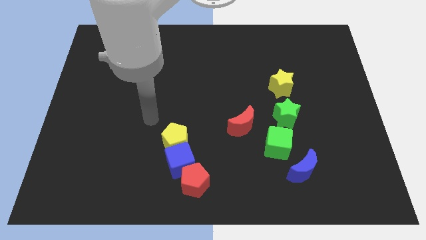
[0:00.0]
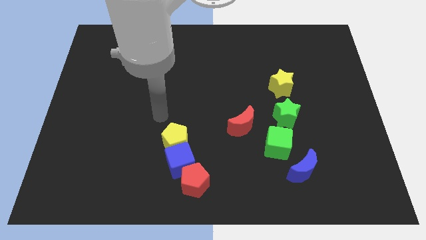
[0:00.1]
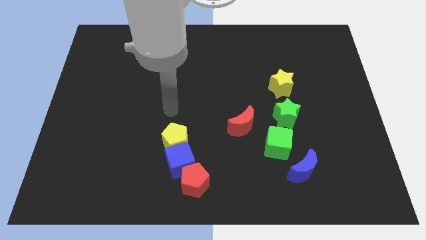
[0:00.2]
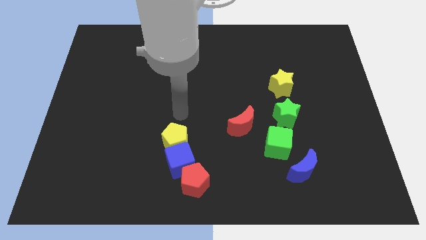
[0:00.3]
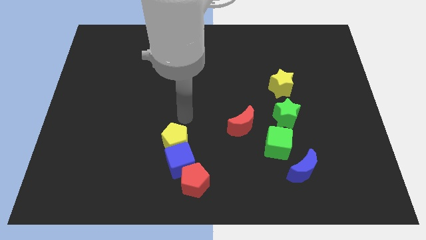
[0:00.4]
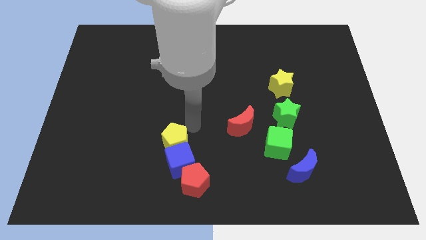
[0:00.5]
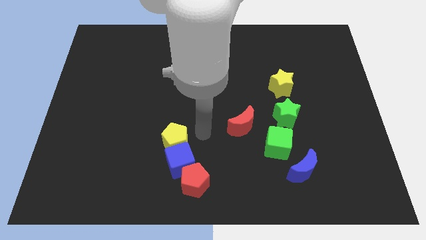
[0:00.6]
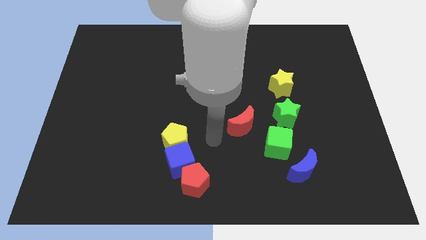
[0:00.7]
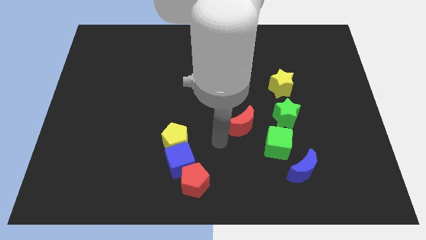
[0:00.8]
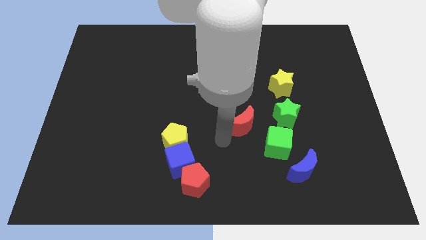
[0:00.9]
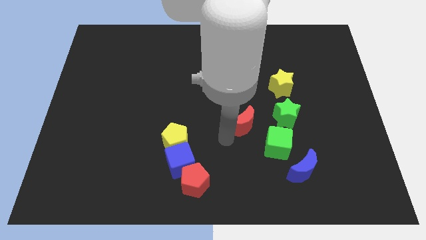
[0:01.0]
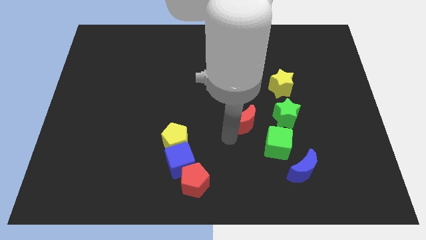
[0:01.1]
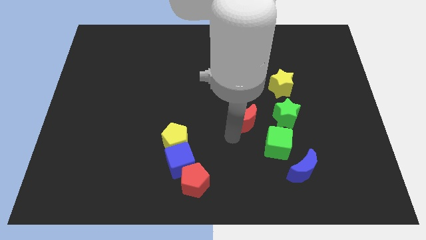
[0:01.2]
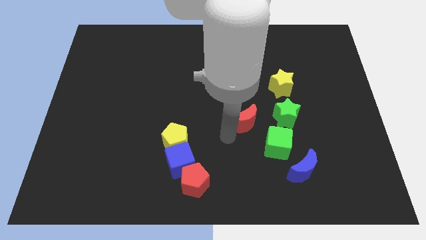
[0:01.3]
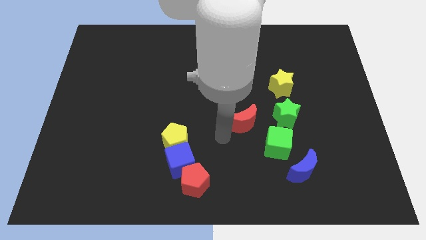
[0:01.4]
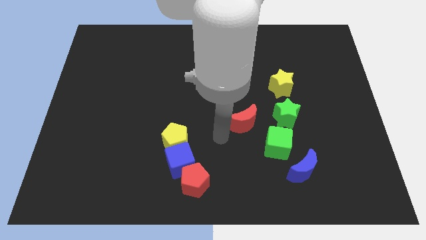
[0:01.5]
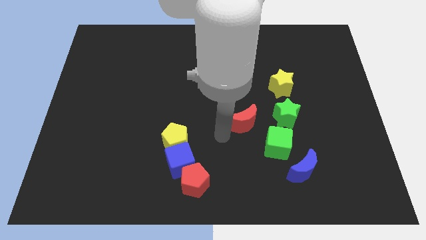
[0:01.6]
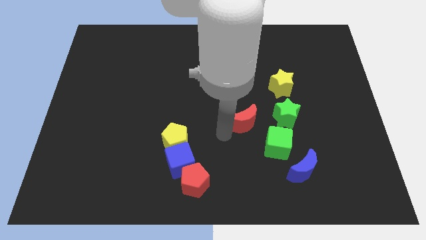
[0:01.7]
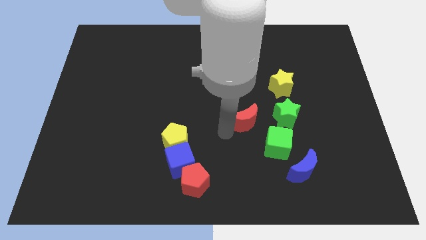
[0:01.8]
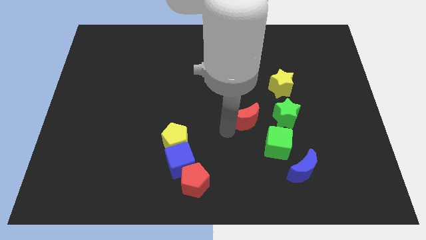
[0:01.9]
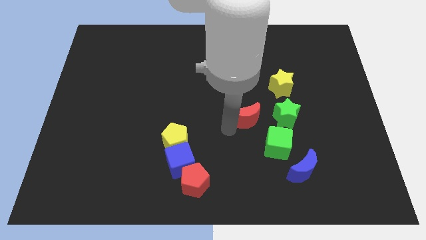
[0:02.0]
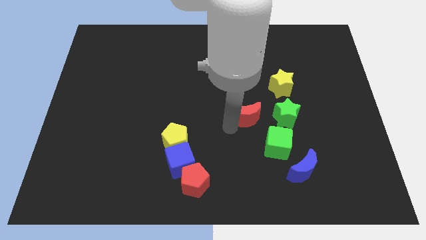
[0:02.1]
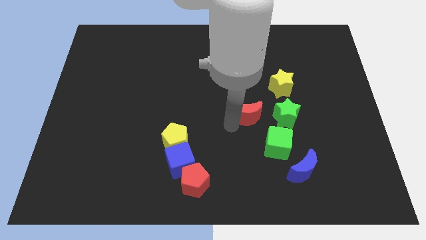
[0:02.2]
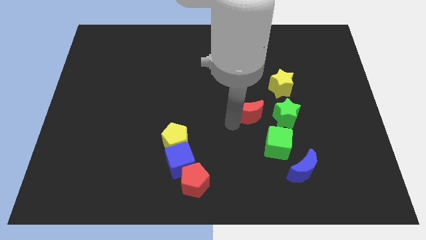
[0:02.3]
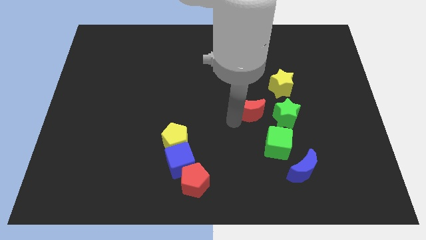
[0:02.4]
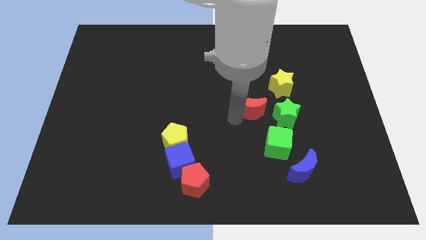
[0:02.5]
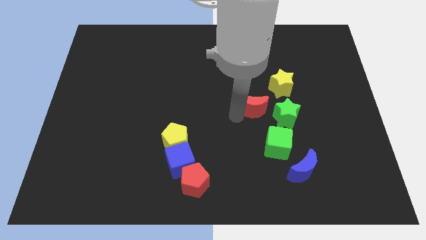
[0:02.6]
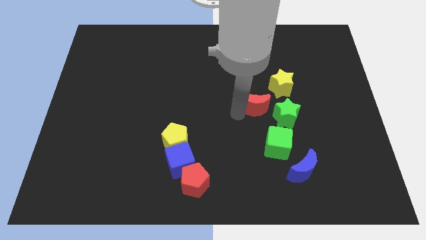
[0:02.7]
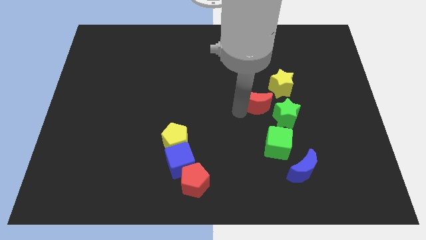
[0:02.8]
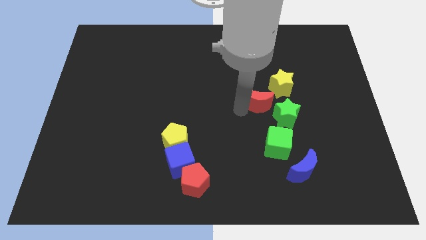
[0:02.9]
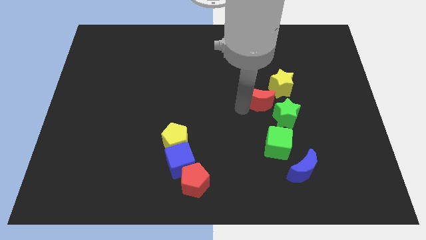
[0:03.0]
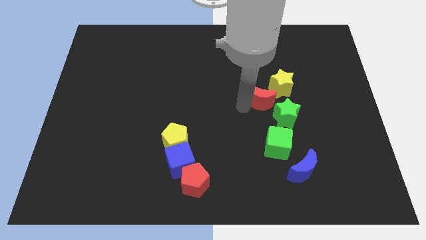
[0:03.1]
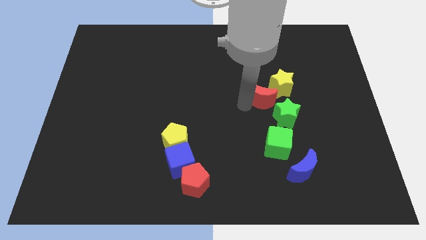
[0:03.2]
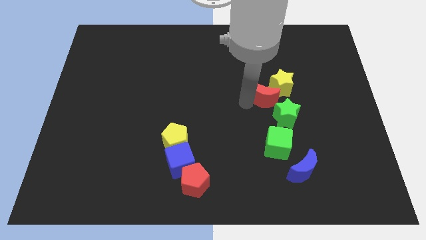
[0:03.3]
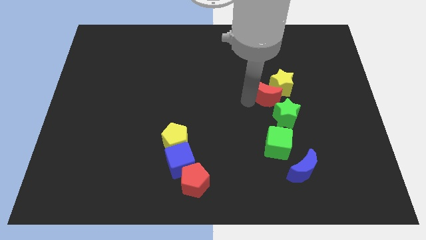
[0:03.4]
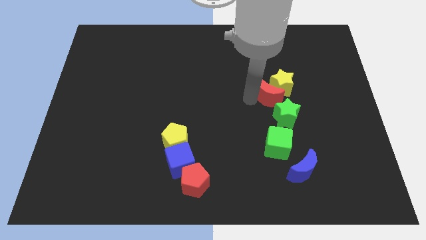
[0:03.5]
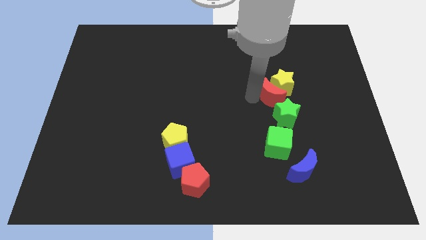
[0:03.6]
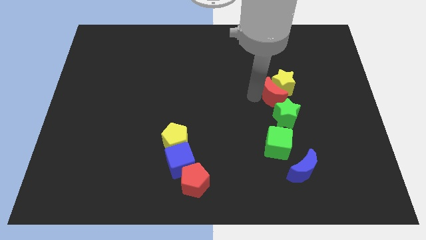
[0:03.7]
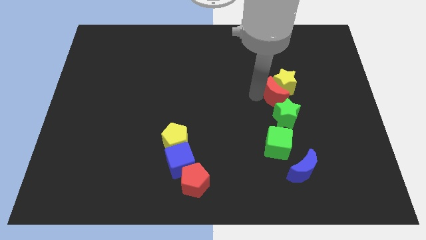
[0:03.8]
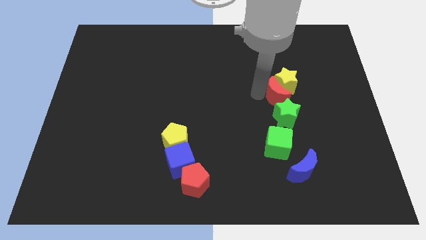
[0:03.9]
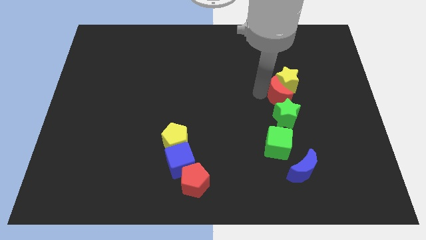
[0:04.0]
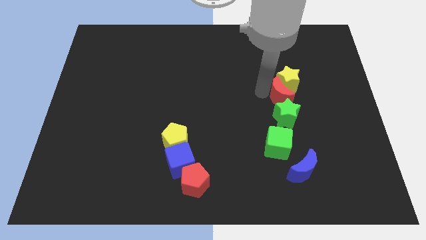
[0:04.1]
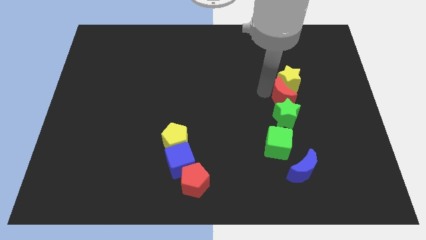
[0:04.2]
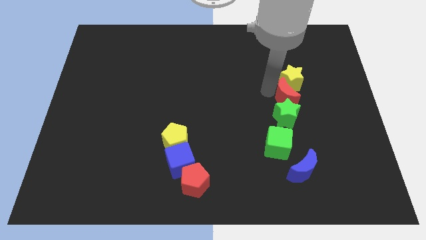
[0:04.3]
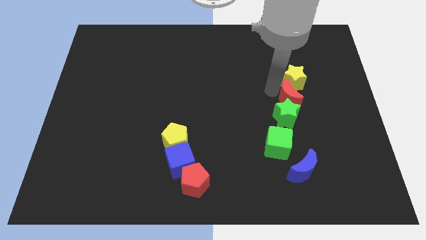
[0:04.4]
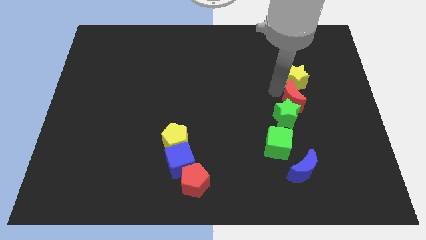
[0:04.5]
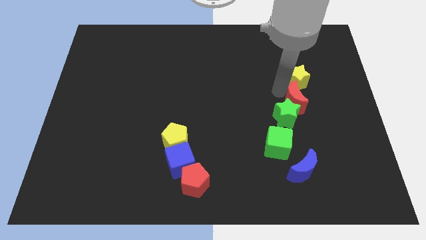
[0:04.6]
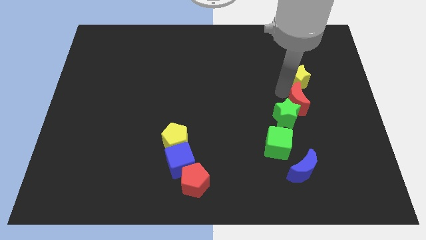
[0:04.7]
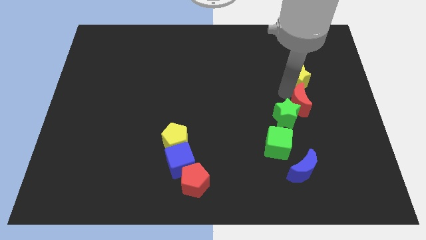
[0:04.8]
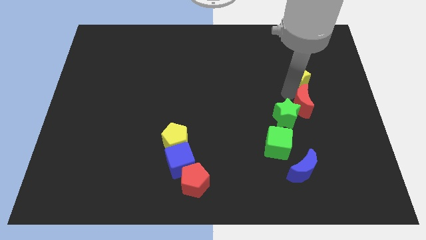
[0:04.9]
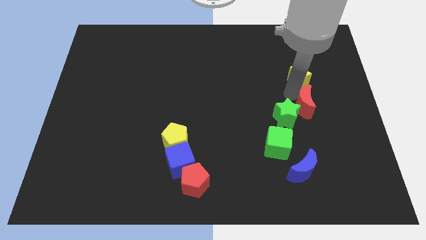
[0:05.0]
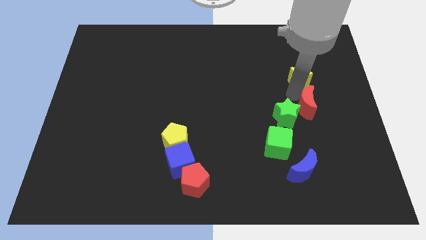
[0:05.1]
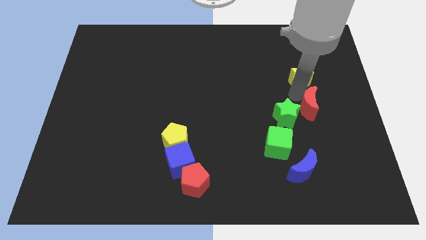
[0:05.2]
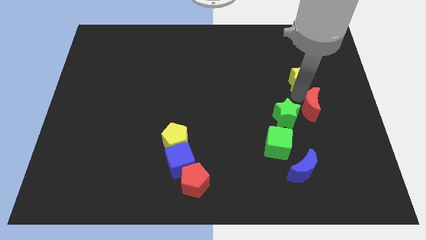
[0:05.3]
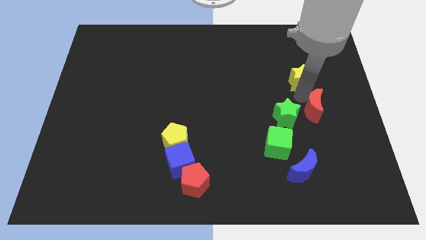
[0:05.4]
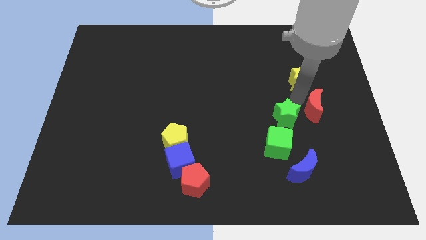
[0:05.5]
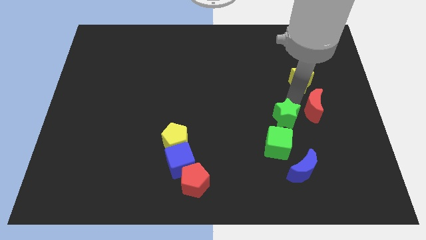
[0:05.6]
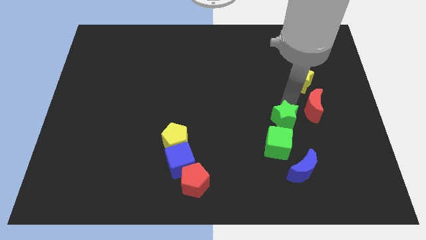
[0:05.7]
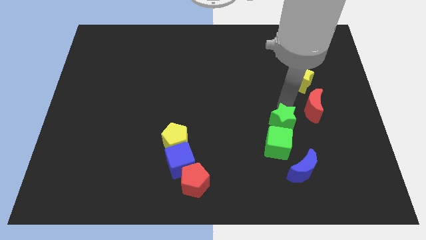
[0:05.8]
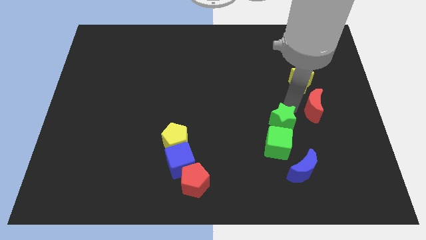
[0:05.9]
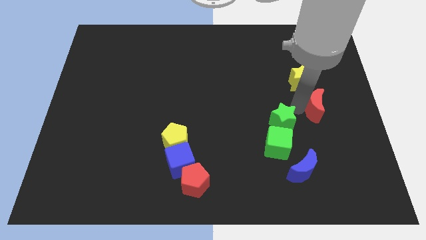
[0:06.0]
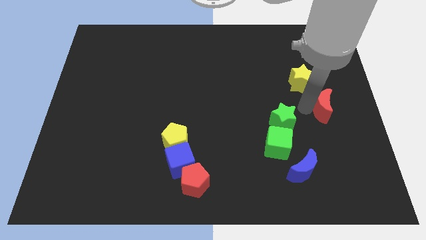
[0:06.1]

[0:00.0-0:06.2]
push the red moon to the right side
